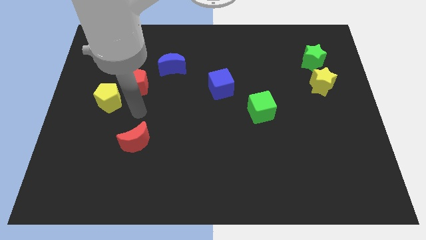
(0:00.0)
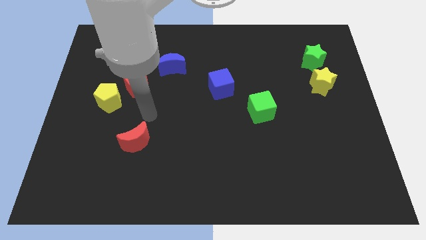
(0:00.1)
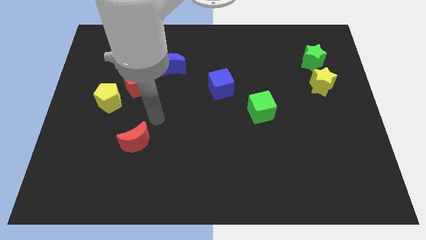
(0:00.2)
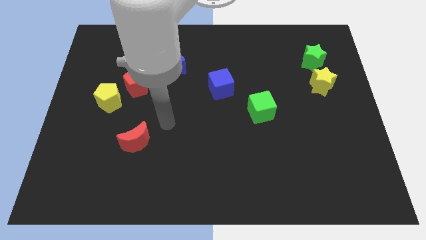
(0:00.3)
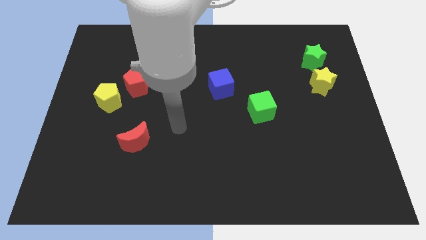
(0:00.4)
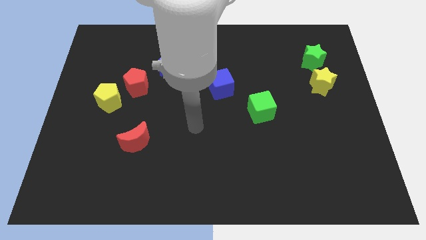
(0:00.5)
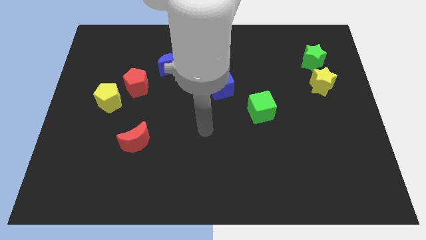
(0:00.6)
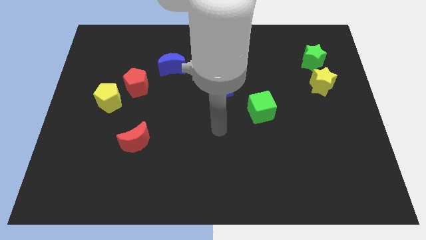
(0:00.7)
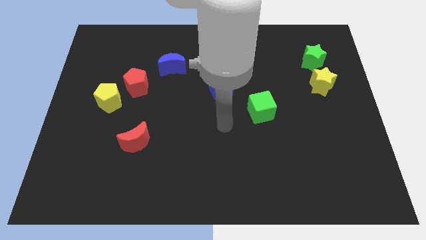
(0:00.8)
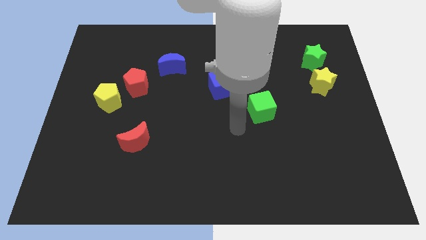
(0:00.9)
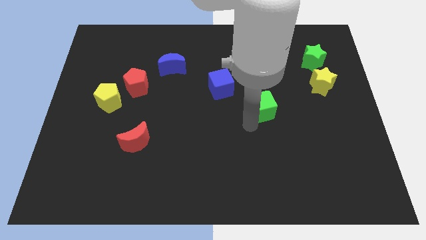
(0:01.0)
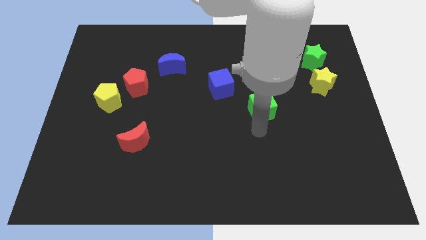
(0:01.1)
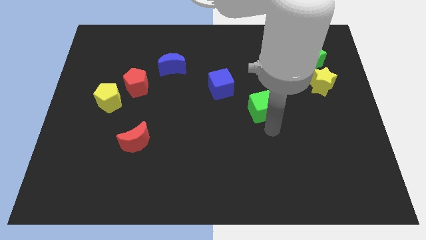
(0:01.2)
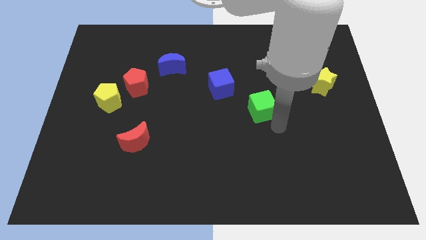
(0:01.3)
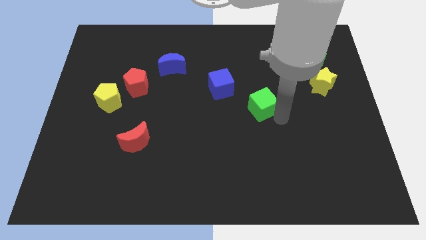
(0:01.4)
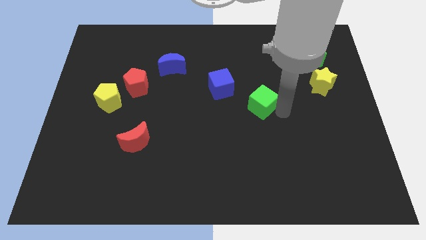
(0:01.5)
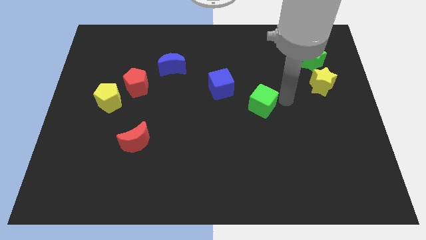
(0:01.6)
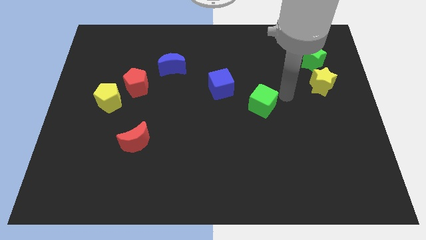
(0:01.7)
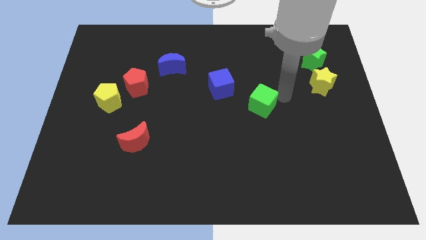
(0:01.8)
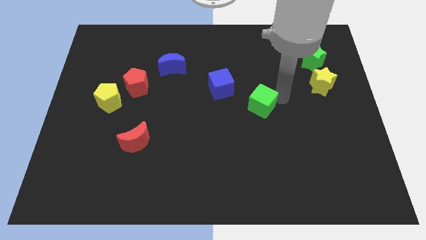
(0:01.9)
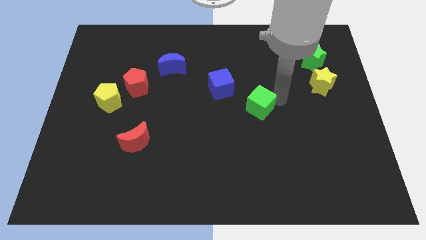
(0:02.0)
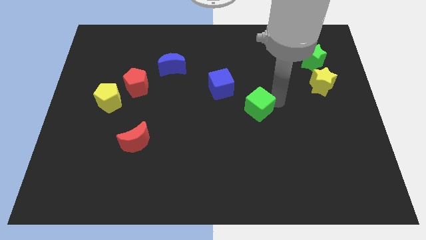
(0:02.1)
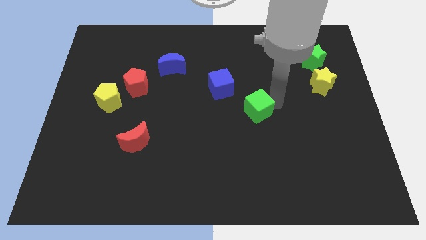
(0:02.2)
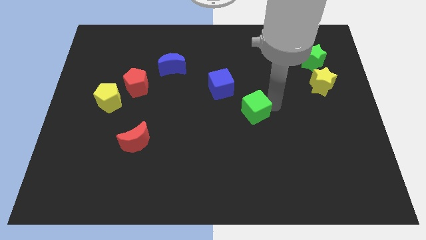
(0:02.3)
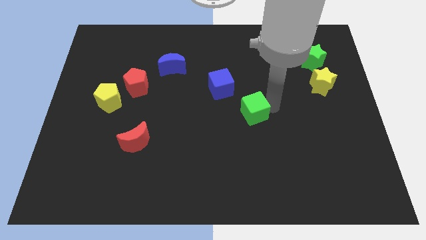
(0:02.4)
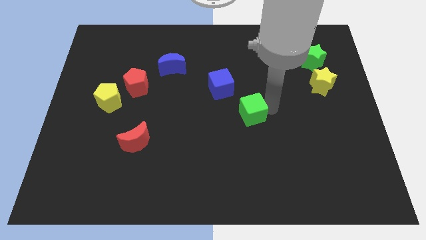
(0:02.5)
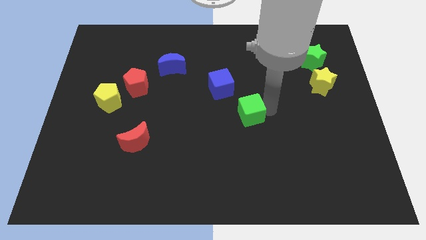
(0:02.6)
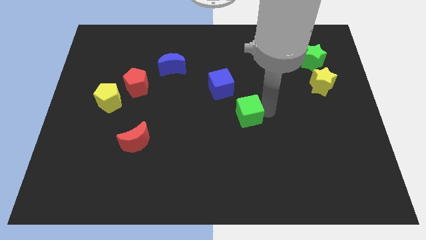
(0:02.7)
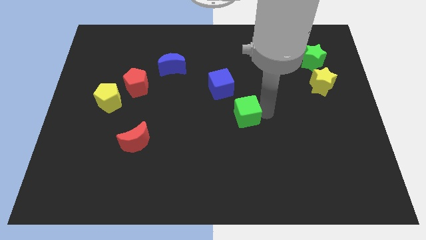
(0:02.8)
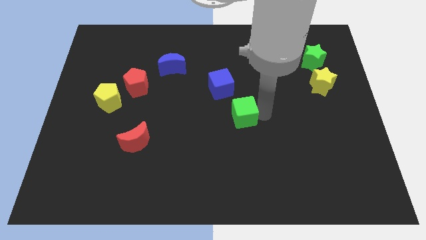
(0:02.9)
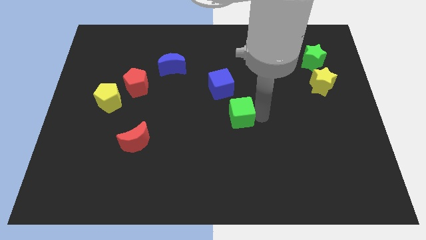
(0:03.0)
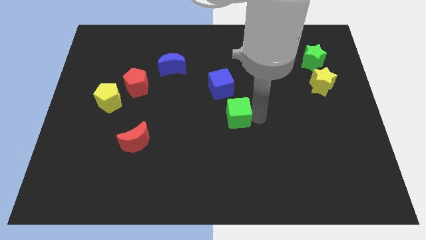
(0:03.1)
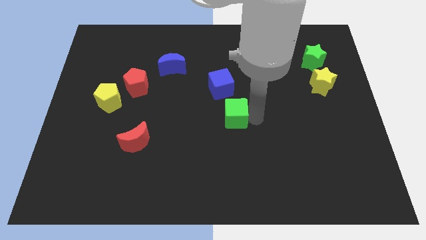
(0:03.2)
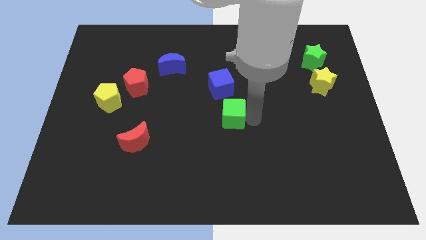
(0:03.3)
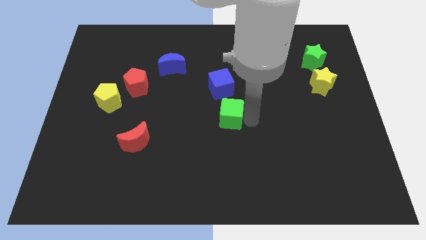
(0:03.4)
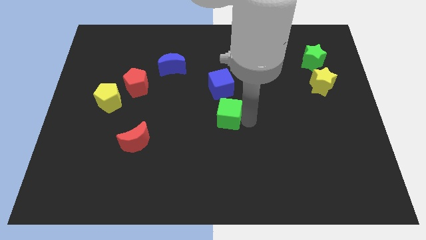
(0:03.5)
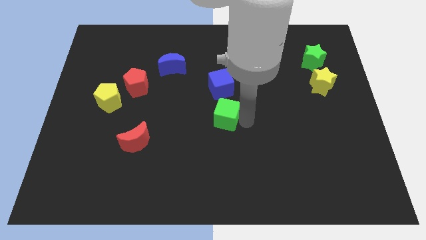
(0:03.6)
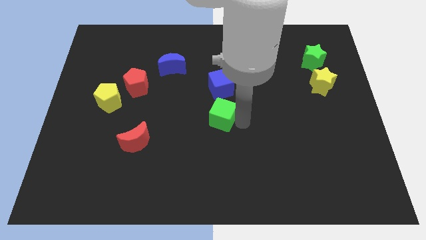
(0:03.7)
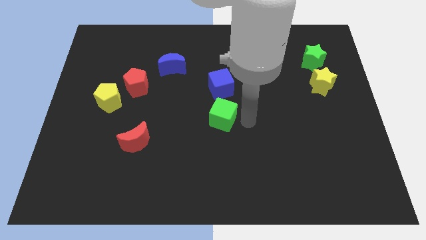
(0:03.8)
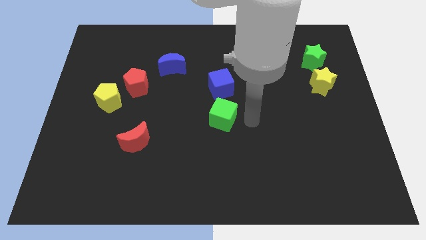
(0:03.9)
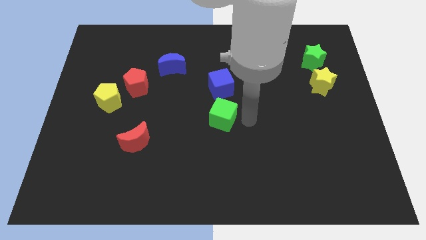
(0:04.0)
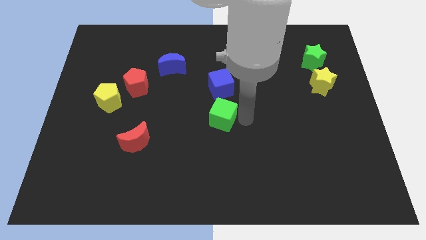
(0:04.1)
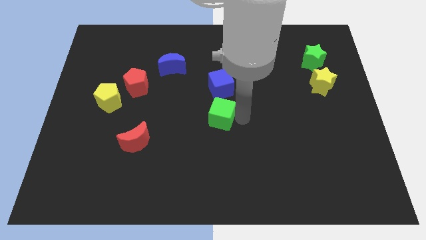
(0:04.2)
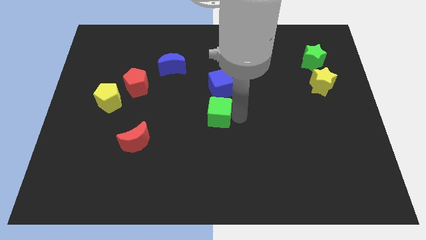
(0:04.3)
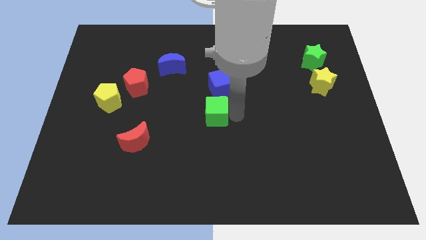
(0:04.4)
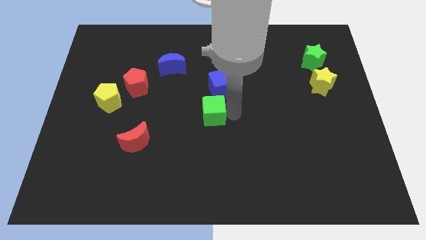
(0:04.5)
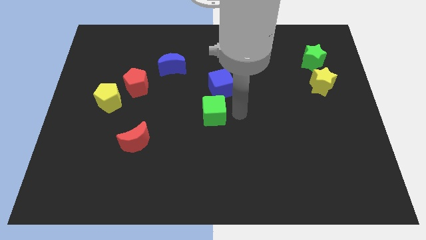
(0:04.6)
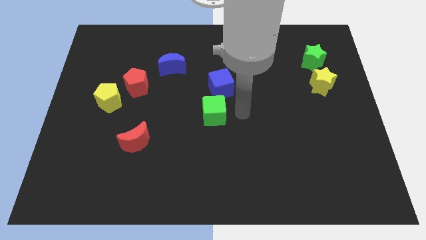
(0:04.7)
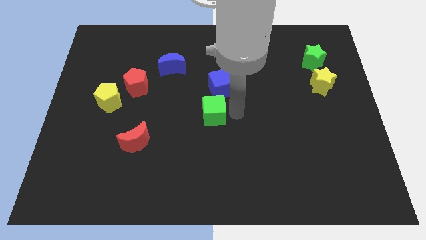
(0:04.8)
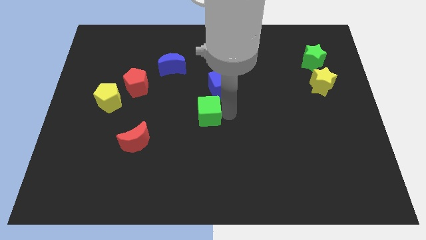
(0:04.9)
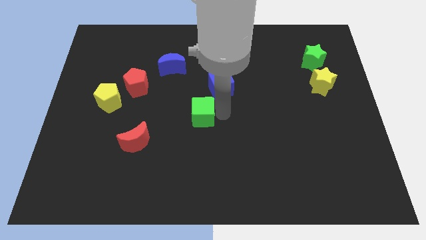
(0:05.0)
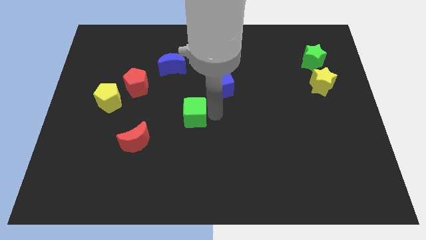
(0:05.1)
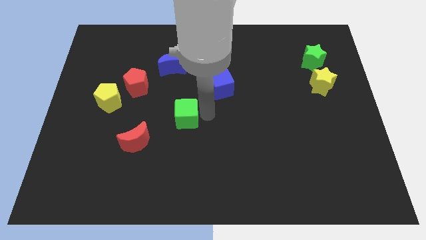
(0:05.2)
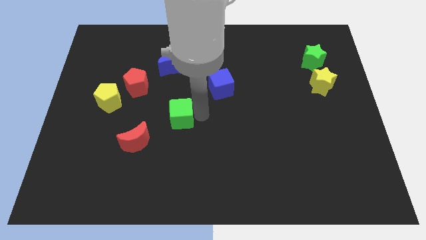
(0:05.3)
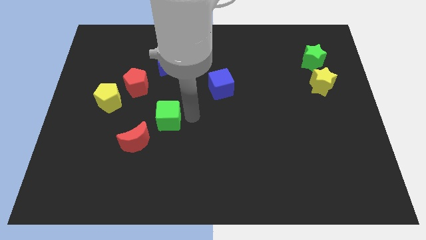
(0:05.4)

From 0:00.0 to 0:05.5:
move the green cube to the left

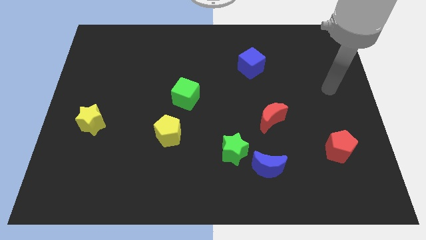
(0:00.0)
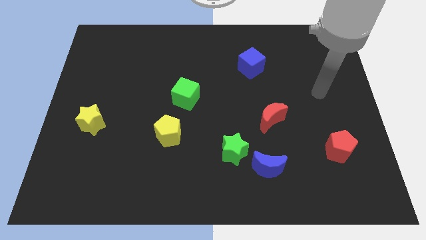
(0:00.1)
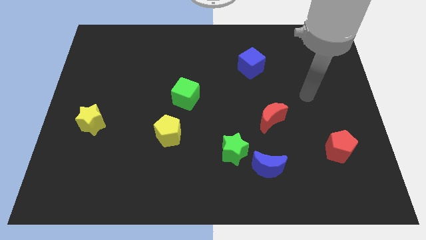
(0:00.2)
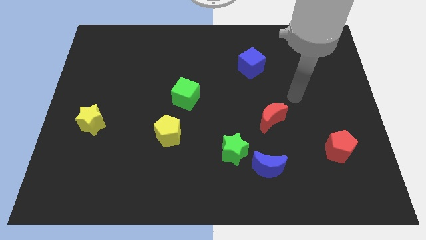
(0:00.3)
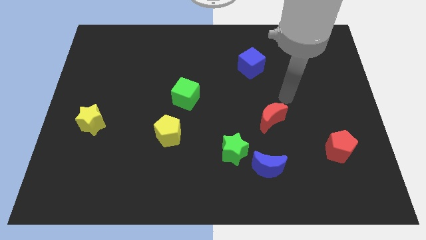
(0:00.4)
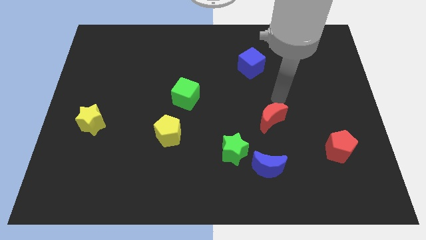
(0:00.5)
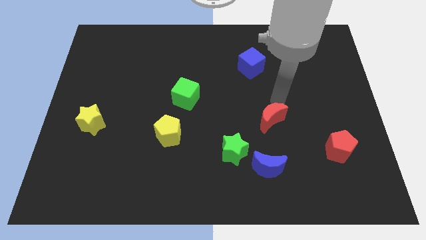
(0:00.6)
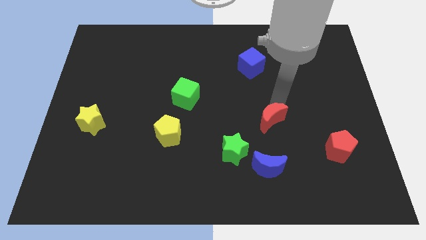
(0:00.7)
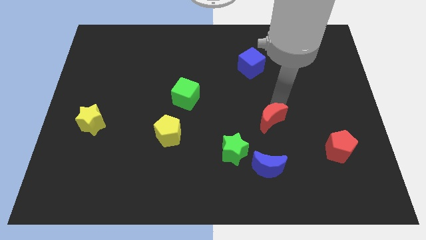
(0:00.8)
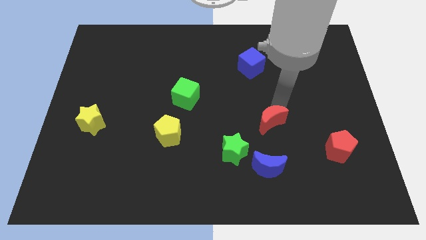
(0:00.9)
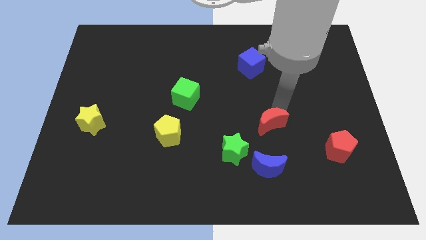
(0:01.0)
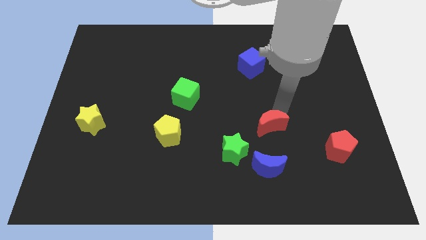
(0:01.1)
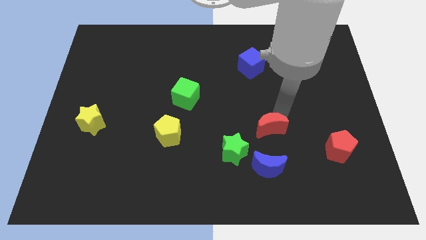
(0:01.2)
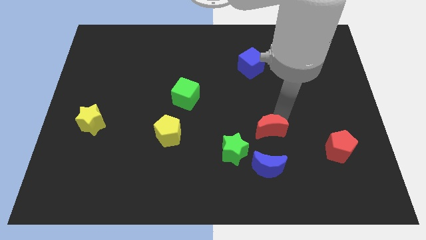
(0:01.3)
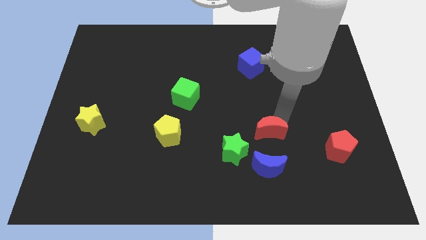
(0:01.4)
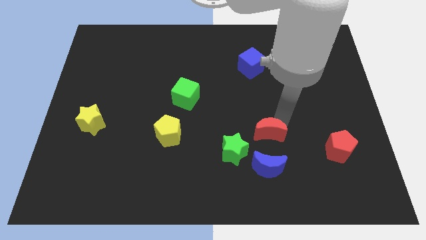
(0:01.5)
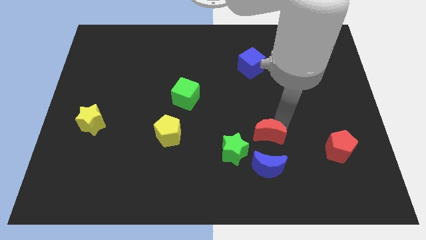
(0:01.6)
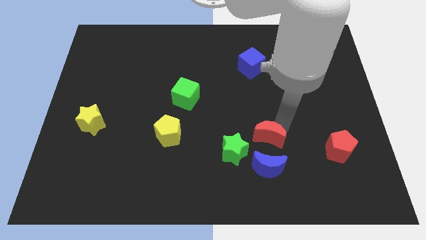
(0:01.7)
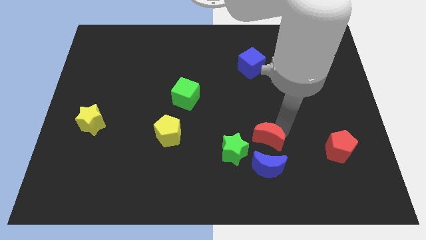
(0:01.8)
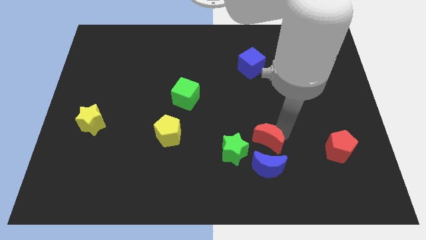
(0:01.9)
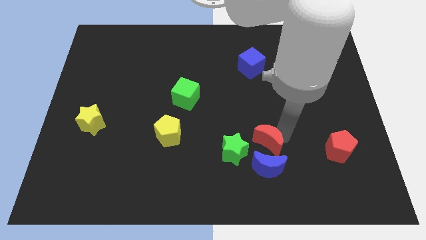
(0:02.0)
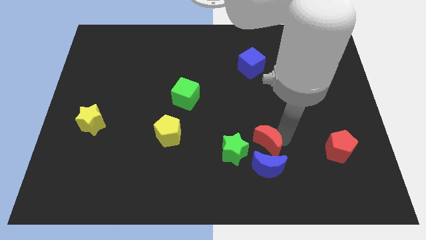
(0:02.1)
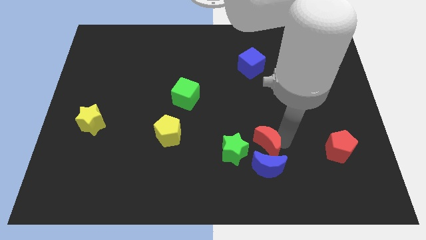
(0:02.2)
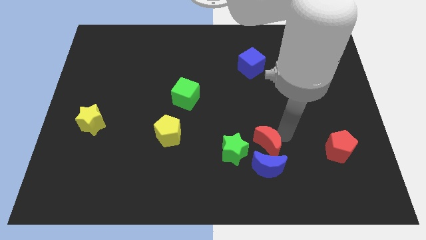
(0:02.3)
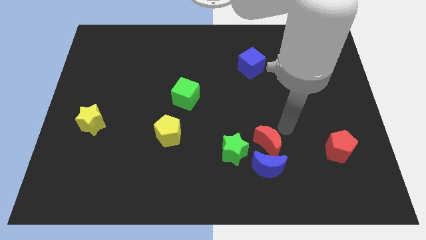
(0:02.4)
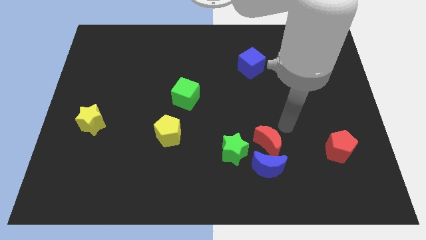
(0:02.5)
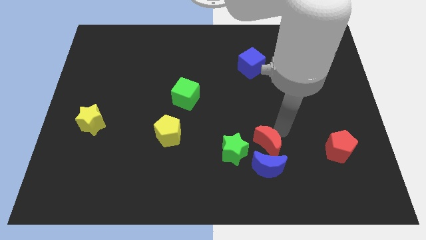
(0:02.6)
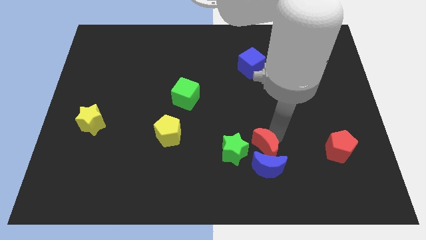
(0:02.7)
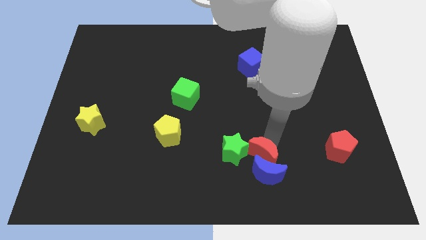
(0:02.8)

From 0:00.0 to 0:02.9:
push the red moon a little downwards and left
